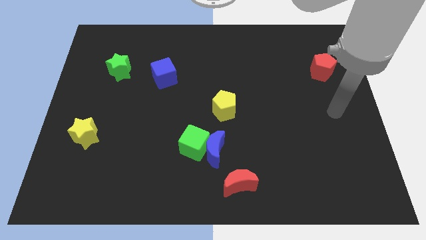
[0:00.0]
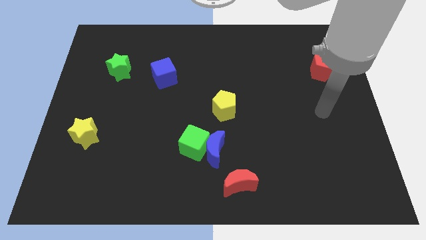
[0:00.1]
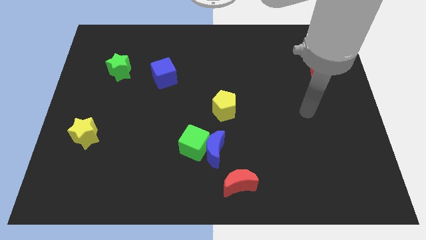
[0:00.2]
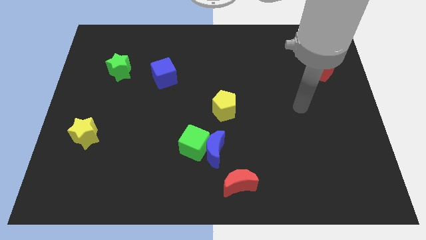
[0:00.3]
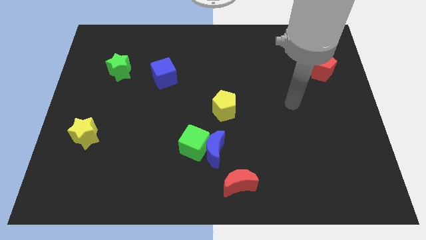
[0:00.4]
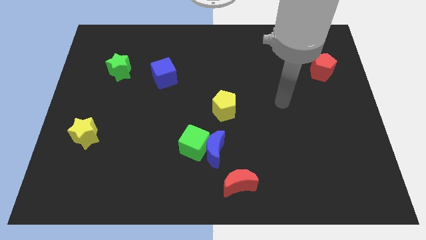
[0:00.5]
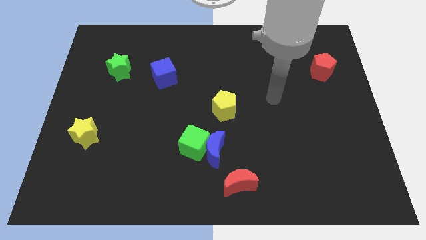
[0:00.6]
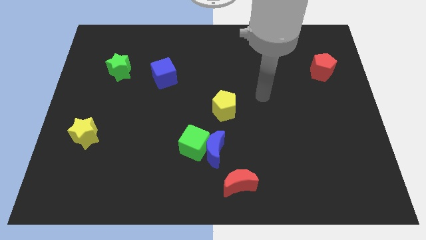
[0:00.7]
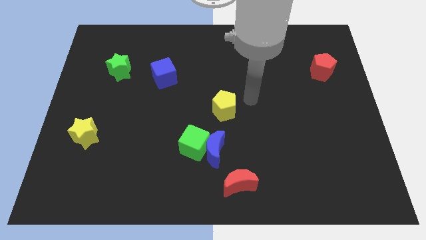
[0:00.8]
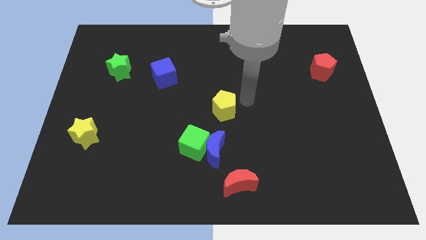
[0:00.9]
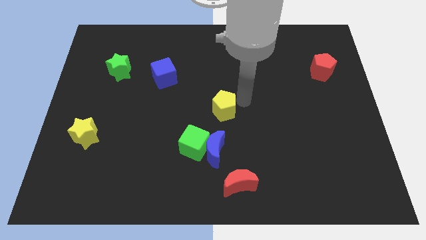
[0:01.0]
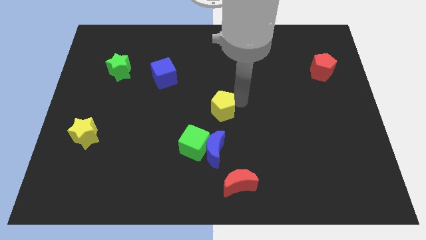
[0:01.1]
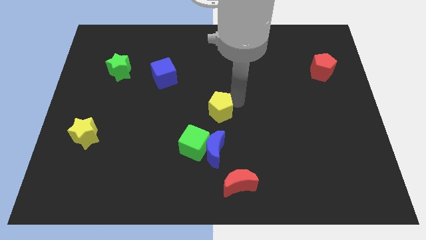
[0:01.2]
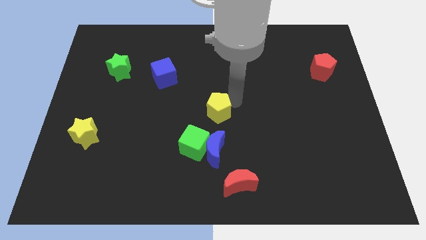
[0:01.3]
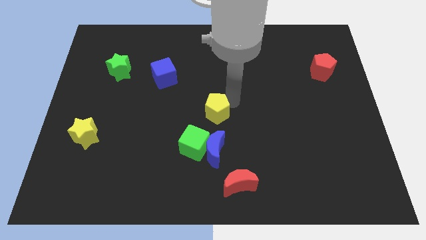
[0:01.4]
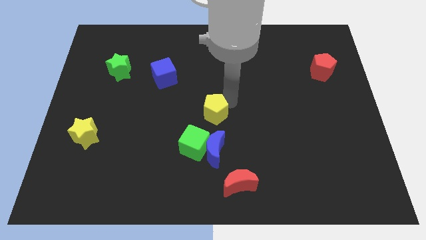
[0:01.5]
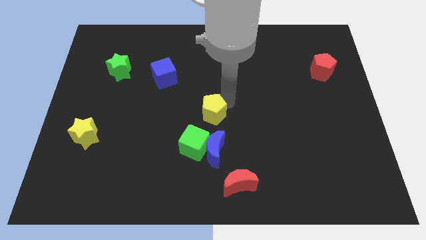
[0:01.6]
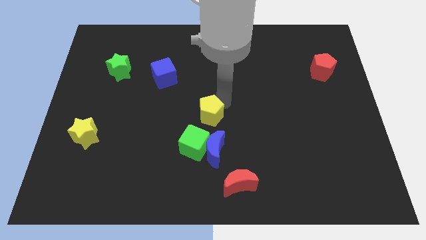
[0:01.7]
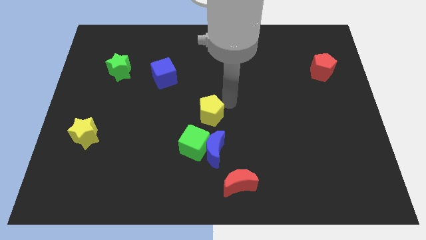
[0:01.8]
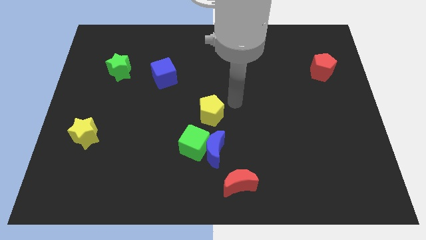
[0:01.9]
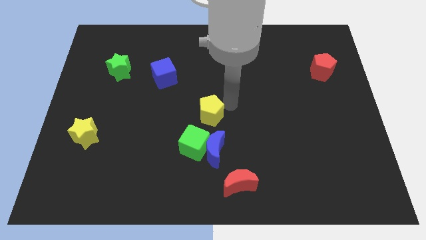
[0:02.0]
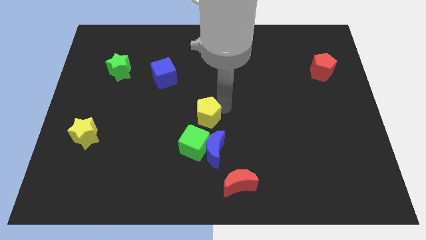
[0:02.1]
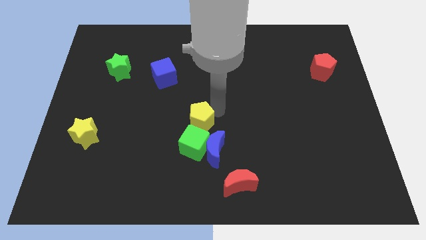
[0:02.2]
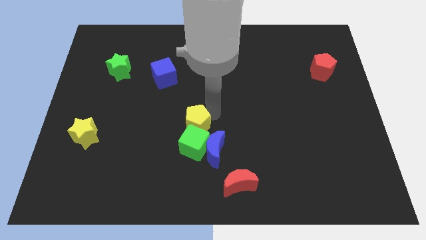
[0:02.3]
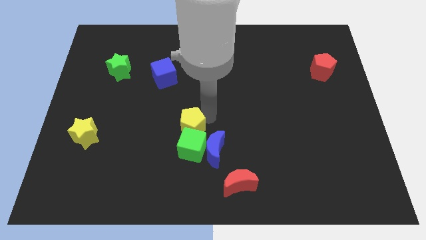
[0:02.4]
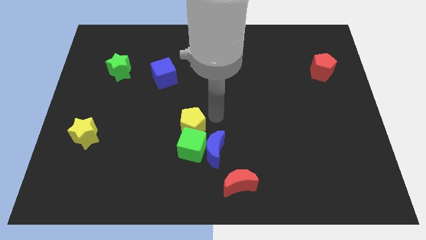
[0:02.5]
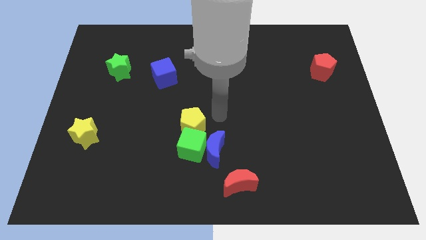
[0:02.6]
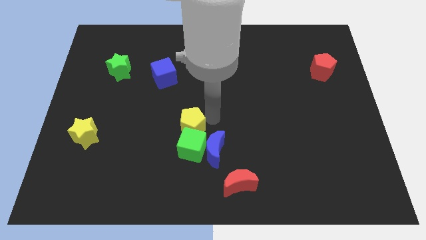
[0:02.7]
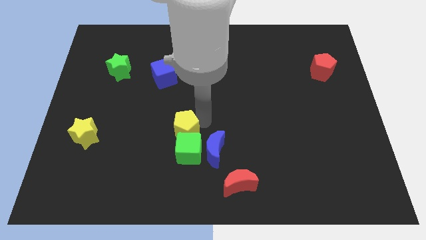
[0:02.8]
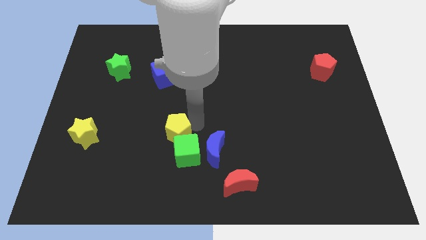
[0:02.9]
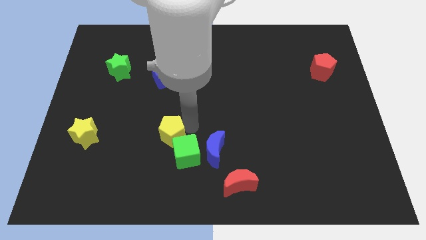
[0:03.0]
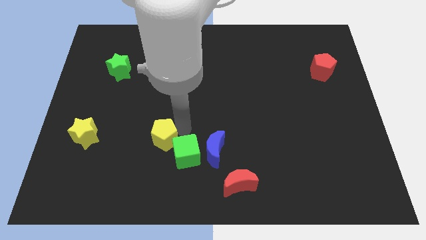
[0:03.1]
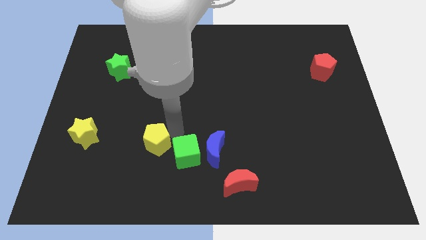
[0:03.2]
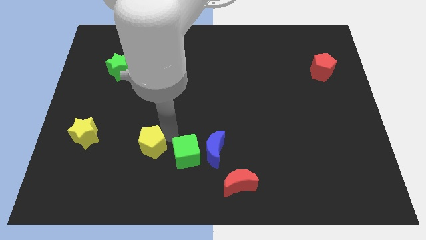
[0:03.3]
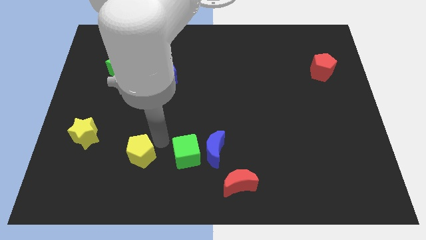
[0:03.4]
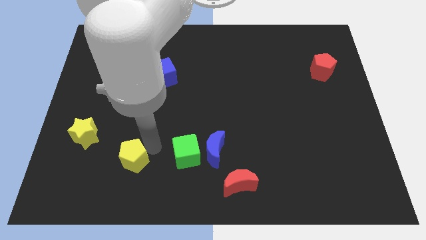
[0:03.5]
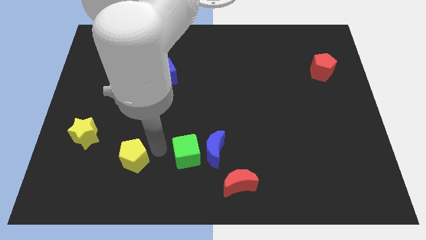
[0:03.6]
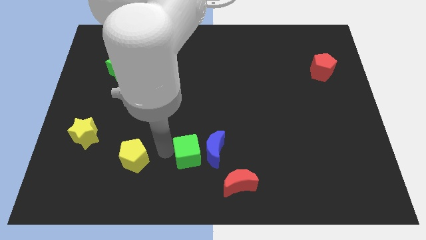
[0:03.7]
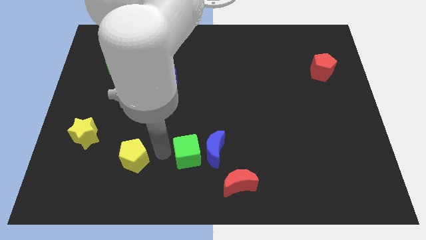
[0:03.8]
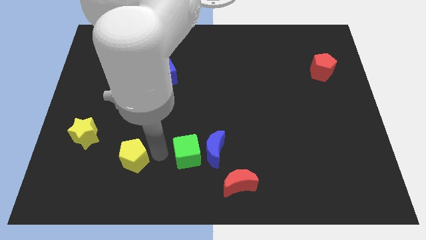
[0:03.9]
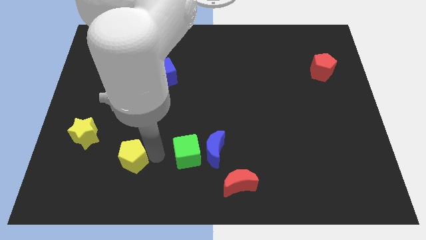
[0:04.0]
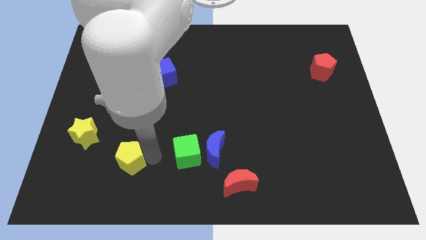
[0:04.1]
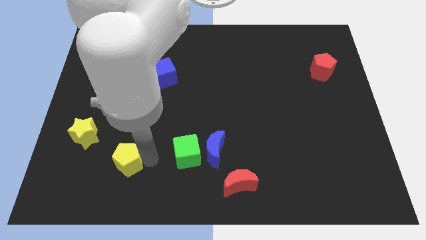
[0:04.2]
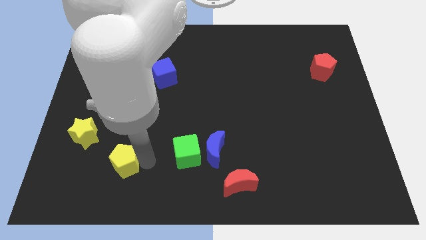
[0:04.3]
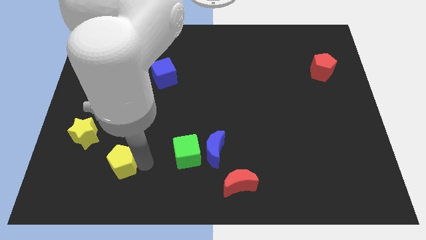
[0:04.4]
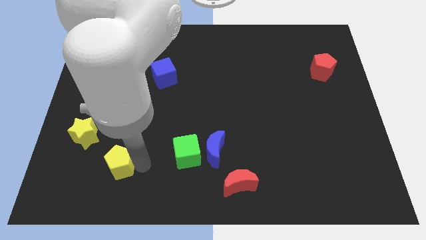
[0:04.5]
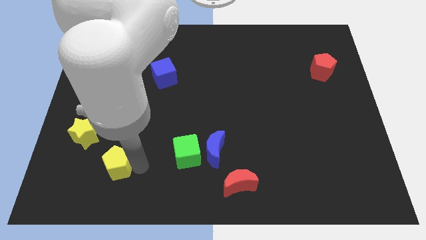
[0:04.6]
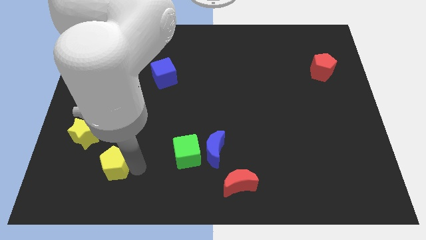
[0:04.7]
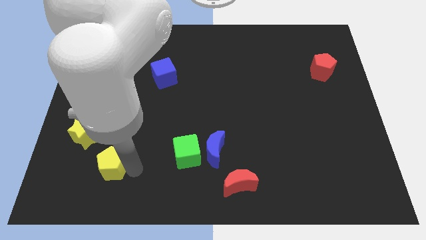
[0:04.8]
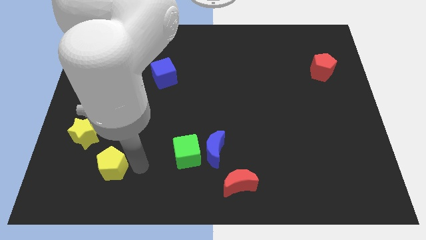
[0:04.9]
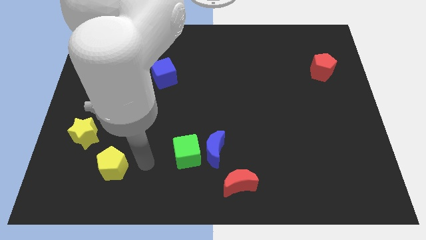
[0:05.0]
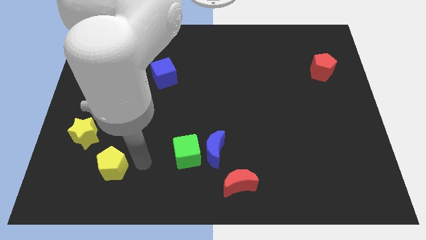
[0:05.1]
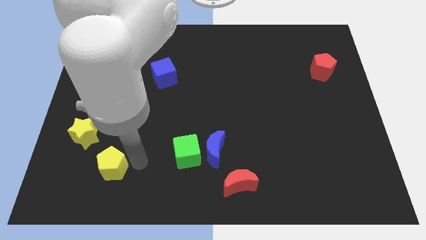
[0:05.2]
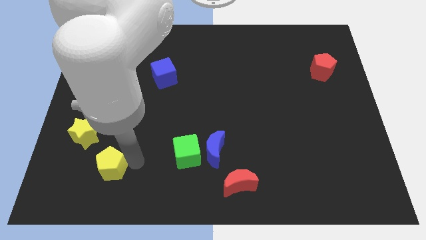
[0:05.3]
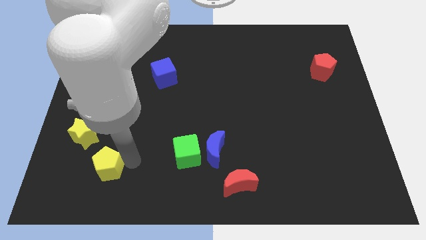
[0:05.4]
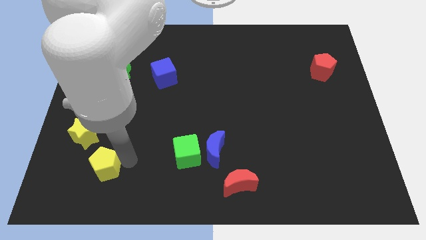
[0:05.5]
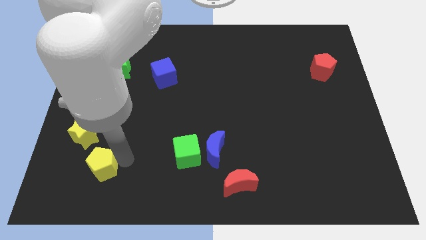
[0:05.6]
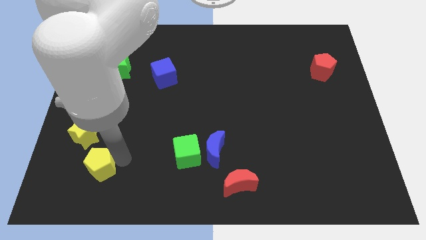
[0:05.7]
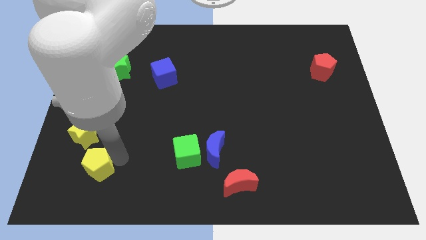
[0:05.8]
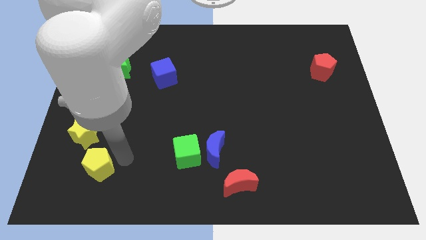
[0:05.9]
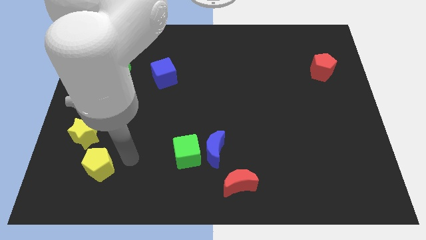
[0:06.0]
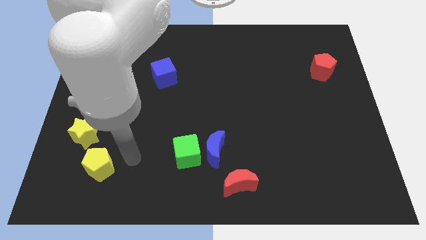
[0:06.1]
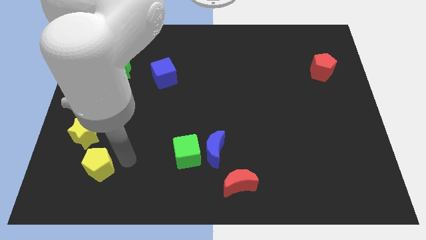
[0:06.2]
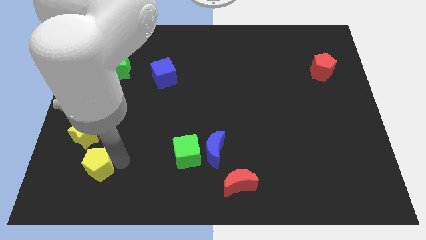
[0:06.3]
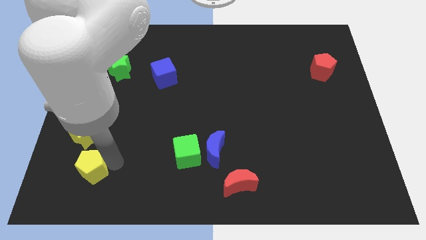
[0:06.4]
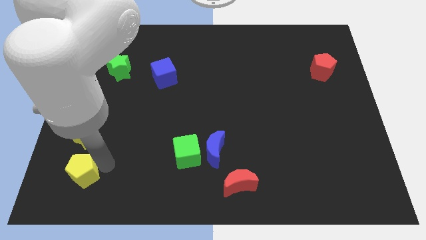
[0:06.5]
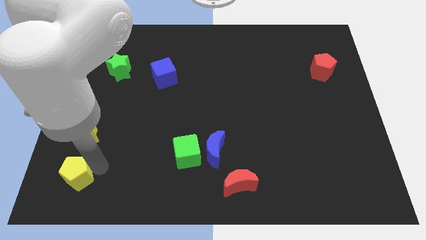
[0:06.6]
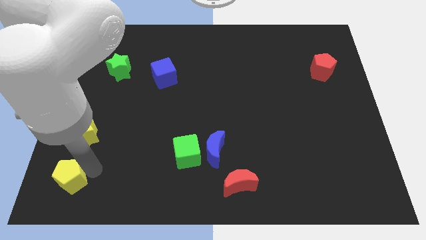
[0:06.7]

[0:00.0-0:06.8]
push the yellow pentagon to the bottom left of the board

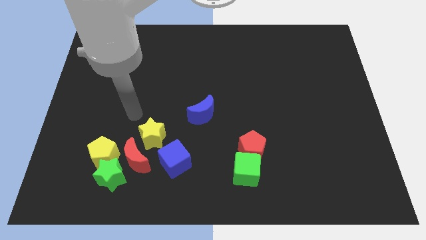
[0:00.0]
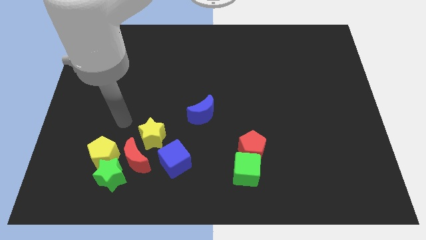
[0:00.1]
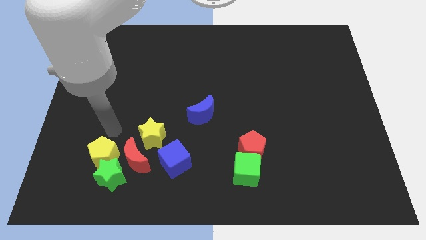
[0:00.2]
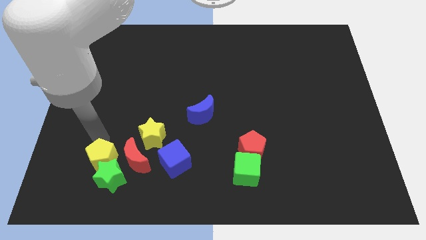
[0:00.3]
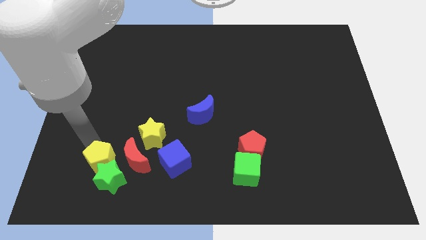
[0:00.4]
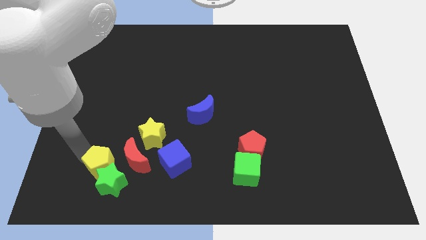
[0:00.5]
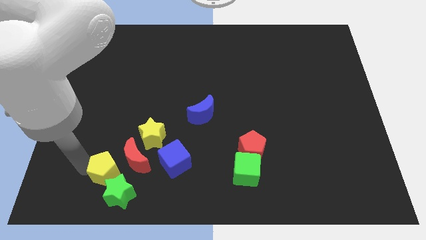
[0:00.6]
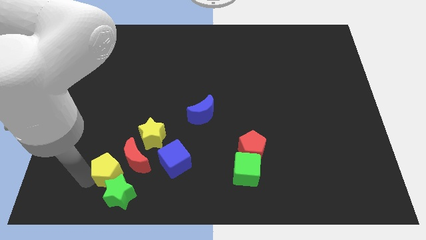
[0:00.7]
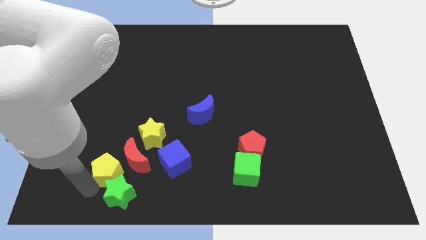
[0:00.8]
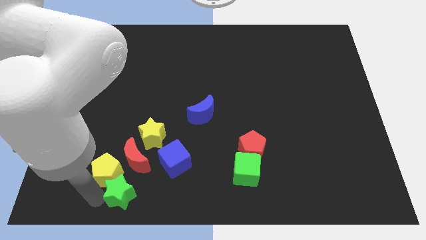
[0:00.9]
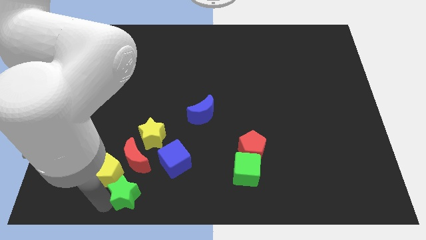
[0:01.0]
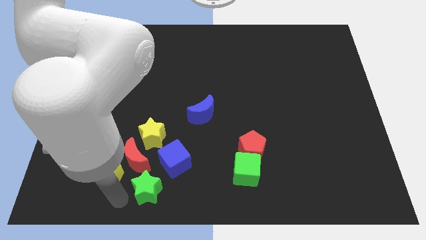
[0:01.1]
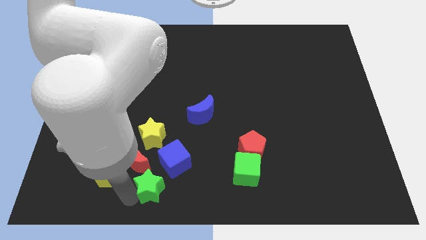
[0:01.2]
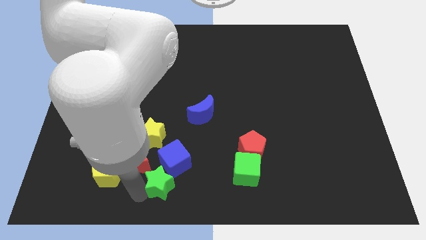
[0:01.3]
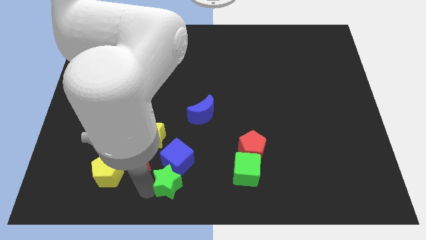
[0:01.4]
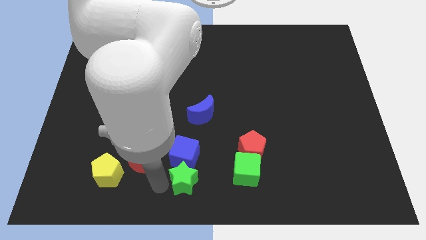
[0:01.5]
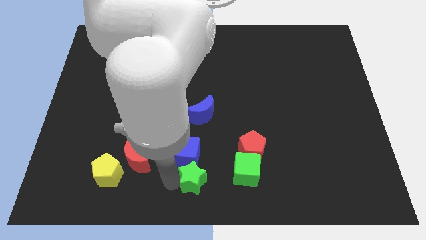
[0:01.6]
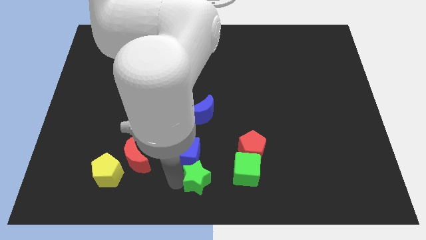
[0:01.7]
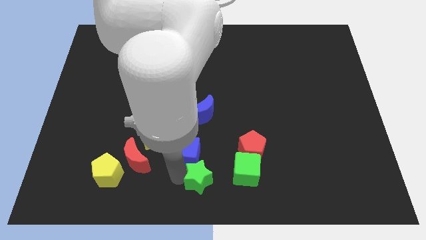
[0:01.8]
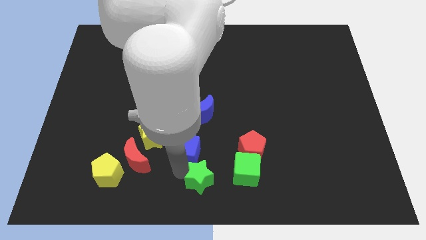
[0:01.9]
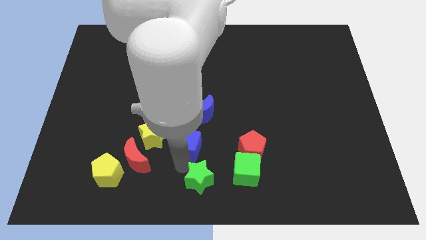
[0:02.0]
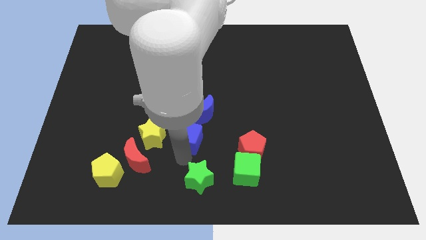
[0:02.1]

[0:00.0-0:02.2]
push the blue cube to the center of the board
